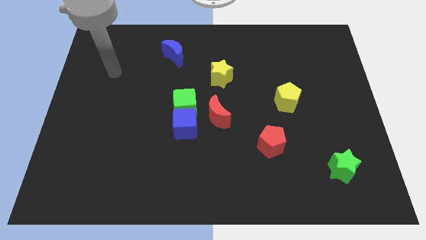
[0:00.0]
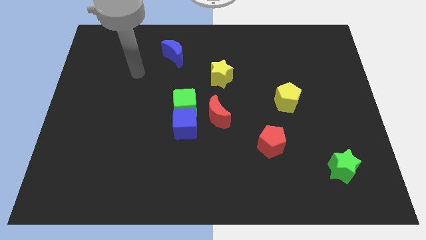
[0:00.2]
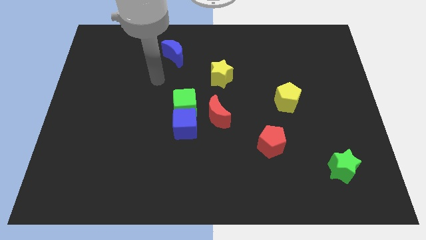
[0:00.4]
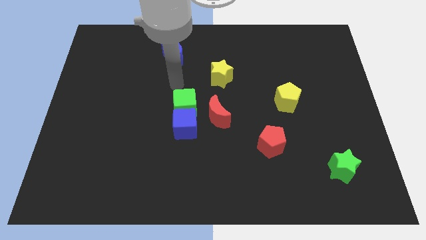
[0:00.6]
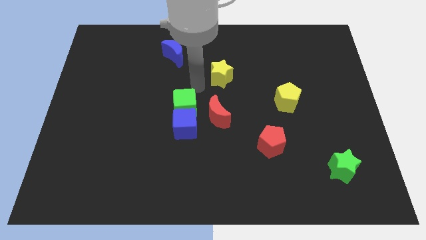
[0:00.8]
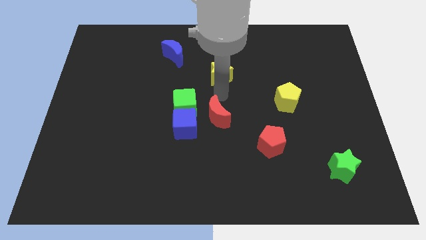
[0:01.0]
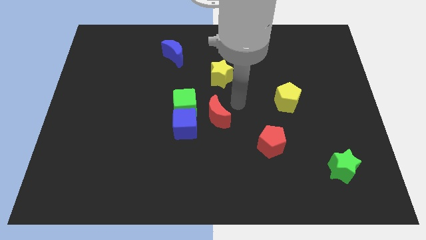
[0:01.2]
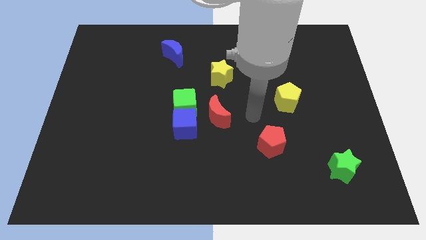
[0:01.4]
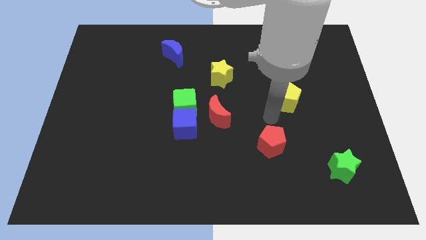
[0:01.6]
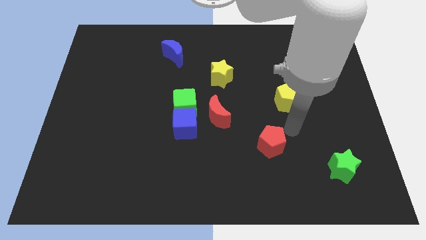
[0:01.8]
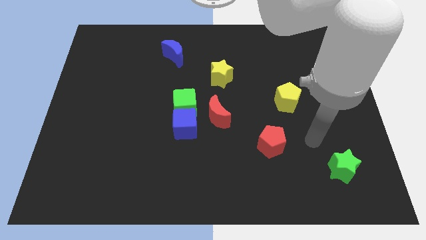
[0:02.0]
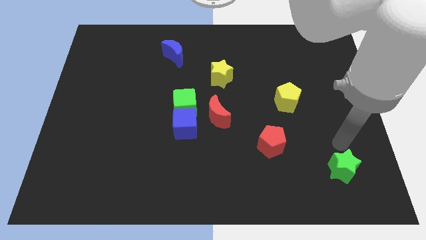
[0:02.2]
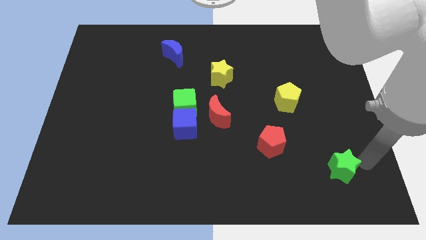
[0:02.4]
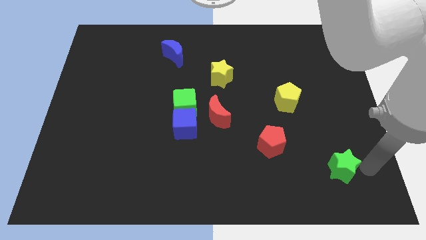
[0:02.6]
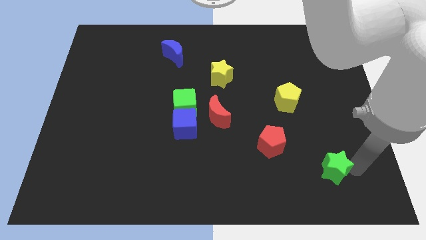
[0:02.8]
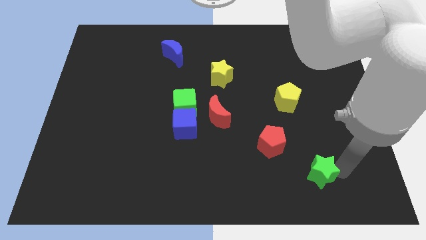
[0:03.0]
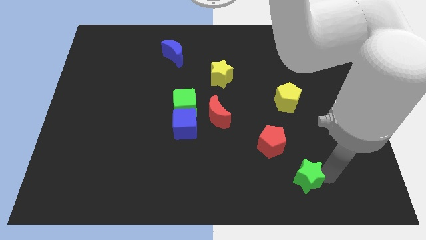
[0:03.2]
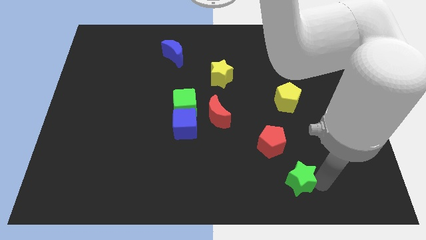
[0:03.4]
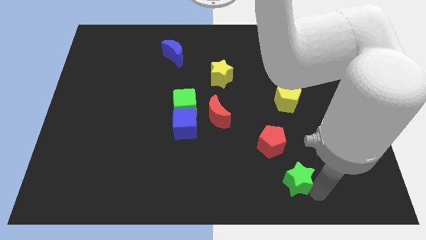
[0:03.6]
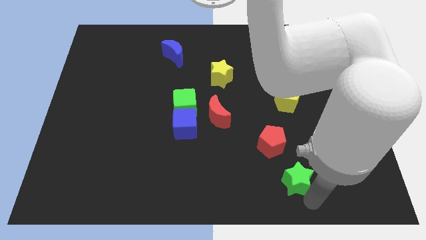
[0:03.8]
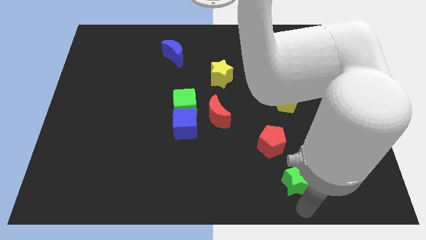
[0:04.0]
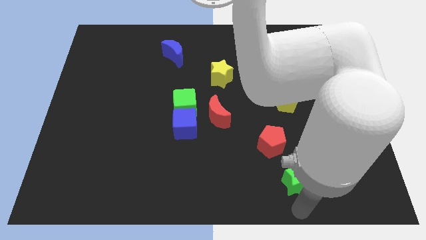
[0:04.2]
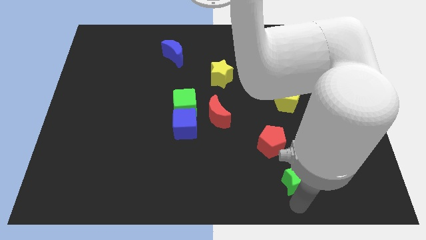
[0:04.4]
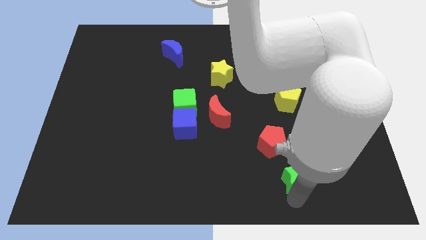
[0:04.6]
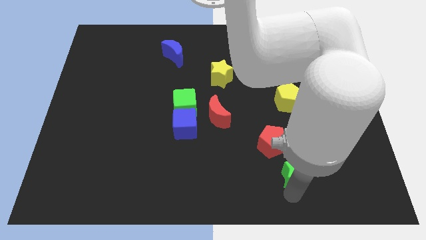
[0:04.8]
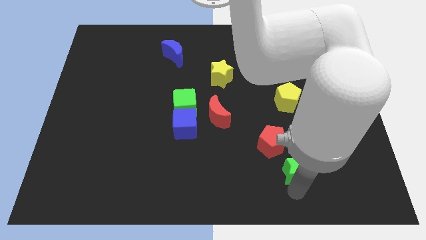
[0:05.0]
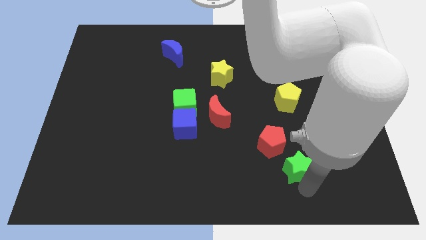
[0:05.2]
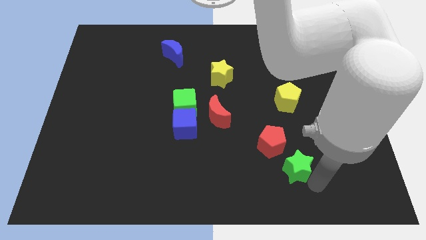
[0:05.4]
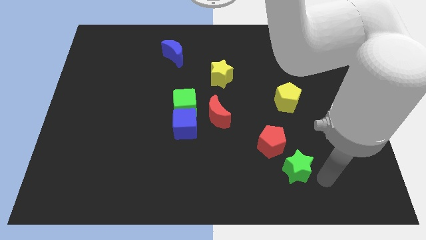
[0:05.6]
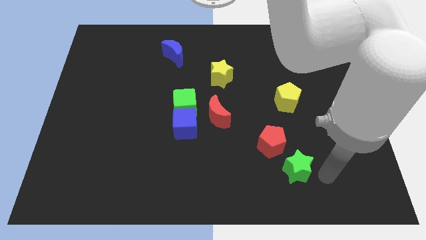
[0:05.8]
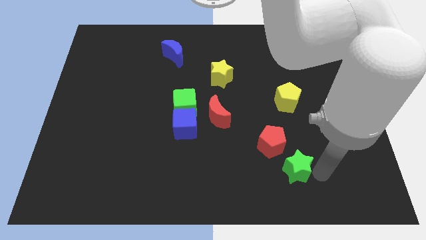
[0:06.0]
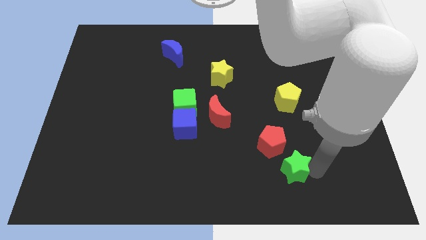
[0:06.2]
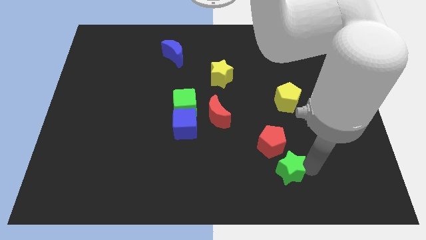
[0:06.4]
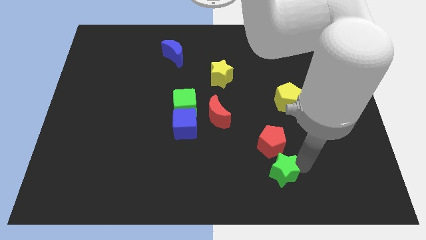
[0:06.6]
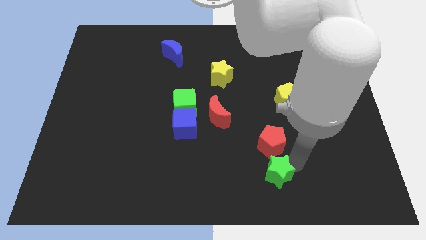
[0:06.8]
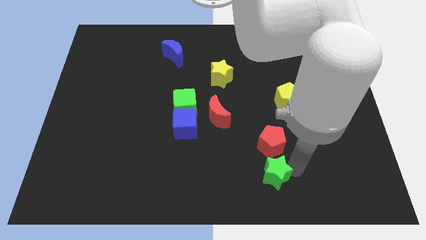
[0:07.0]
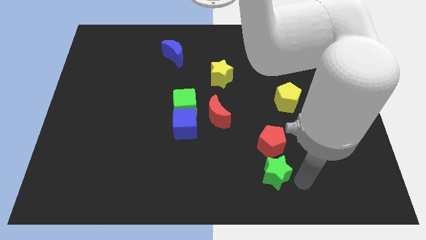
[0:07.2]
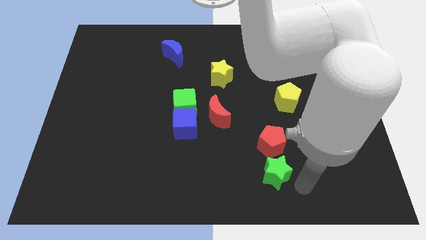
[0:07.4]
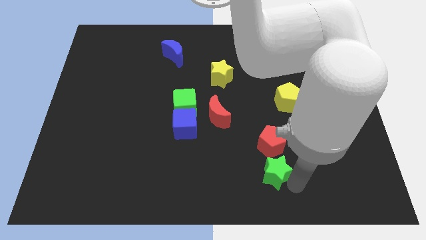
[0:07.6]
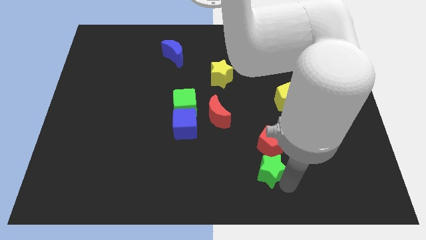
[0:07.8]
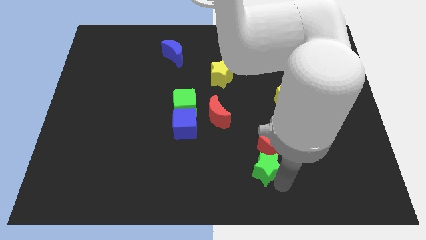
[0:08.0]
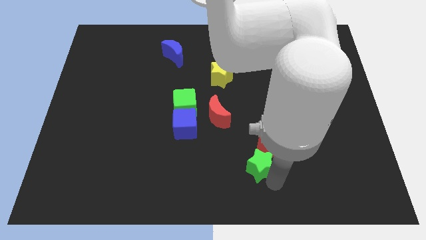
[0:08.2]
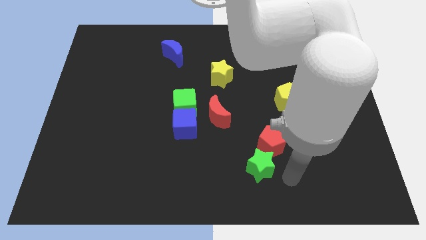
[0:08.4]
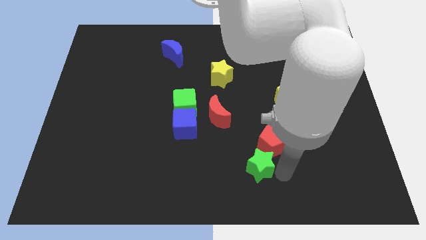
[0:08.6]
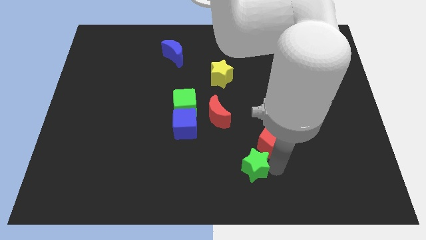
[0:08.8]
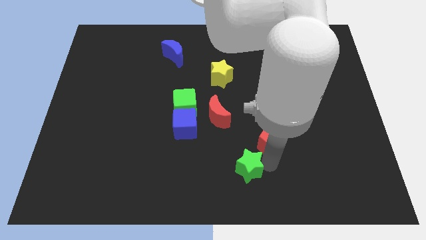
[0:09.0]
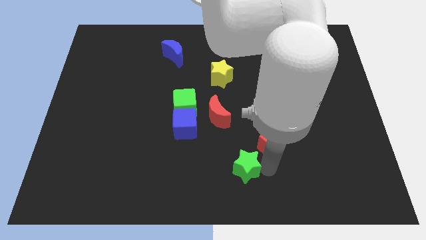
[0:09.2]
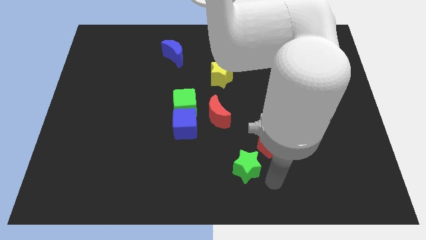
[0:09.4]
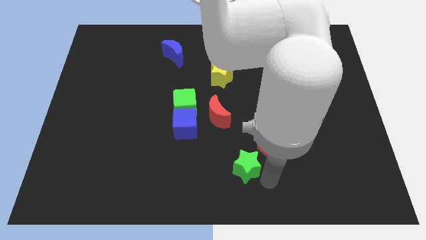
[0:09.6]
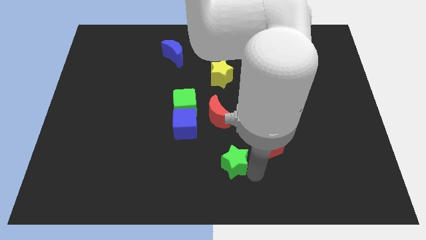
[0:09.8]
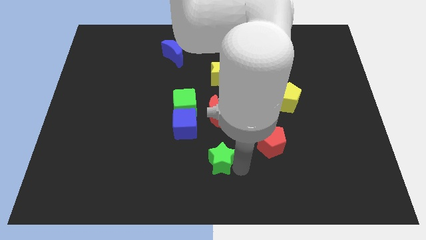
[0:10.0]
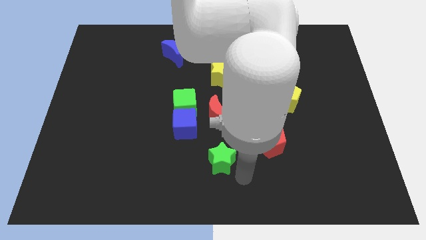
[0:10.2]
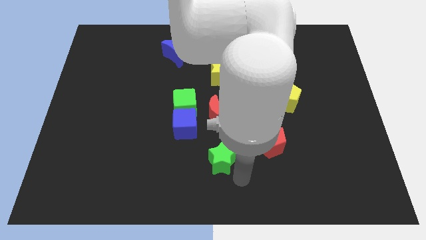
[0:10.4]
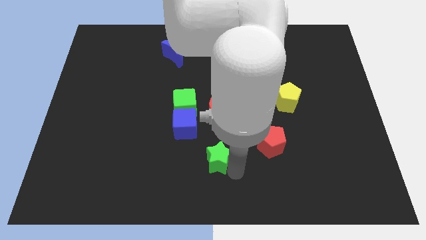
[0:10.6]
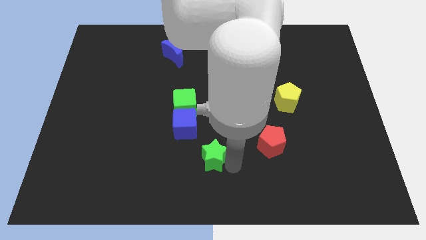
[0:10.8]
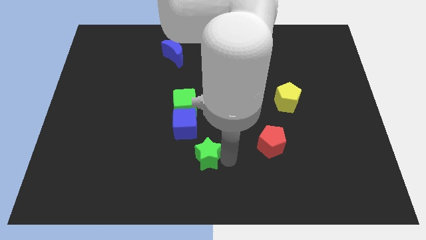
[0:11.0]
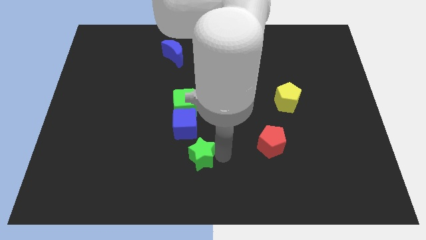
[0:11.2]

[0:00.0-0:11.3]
push the green star below the green cube

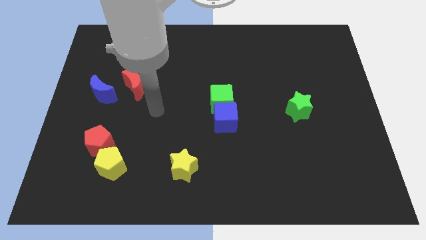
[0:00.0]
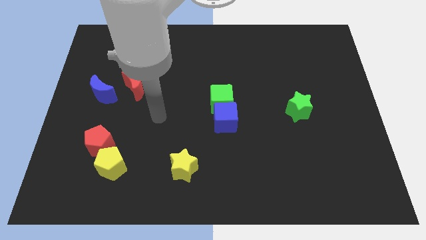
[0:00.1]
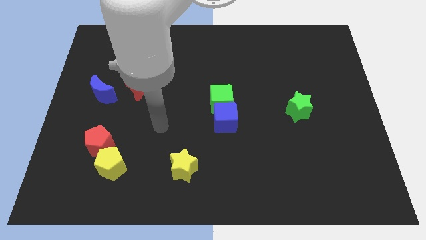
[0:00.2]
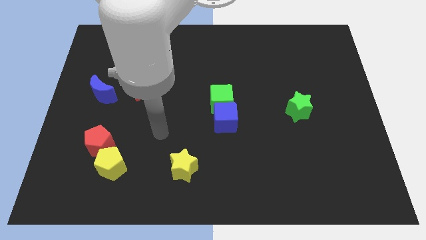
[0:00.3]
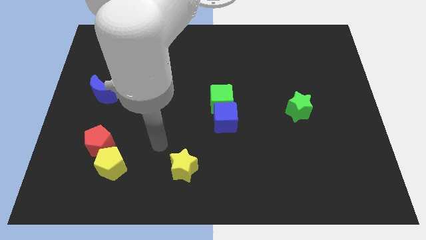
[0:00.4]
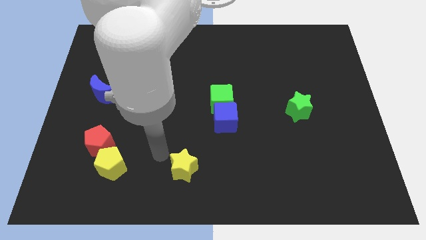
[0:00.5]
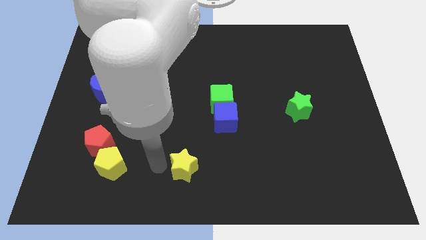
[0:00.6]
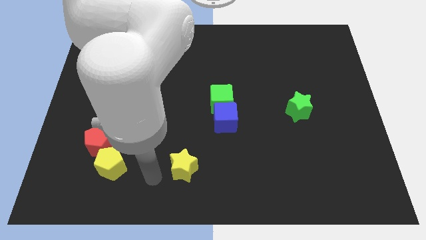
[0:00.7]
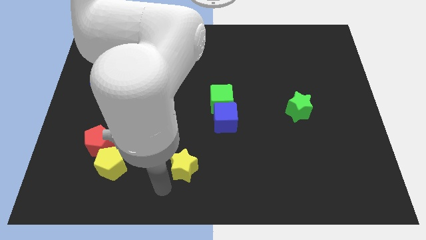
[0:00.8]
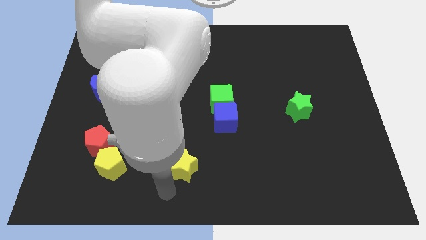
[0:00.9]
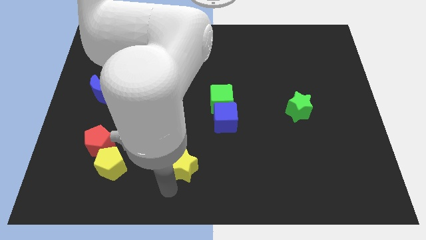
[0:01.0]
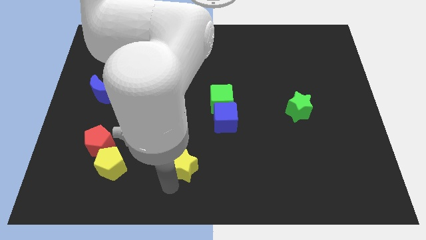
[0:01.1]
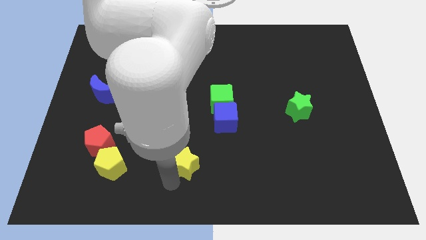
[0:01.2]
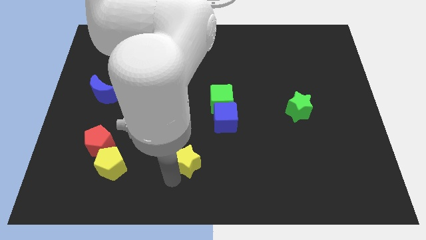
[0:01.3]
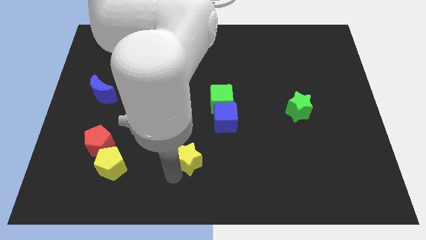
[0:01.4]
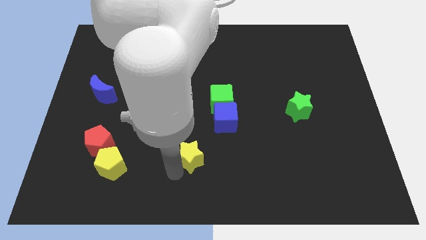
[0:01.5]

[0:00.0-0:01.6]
slide the yellow star to the bottom left of the blue cube

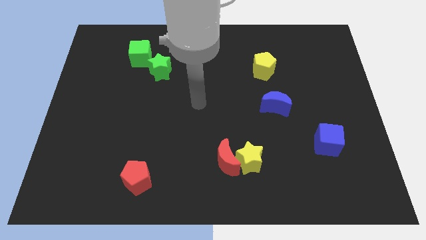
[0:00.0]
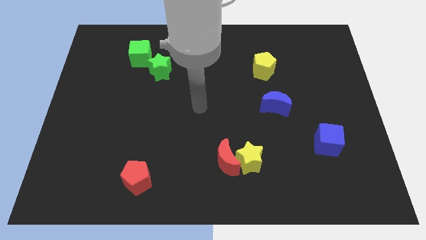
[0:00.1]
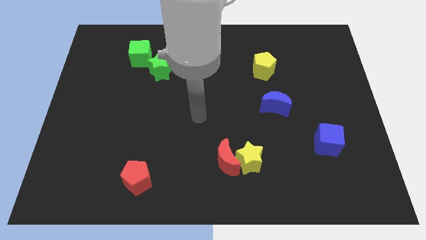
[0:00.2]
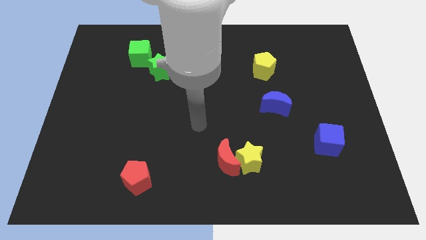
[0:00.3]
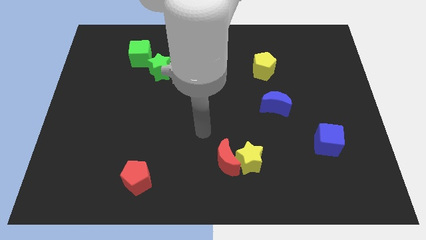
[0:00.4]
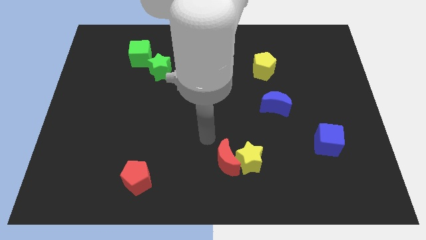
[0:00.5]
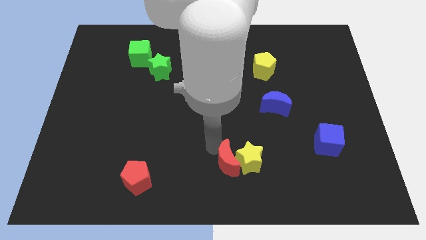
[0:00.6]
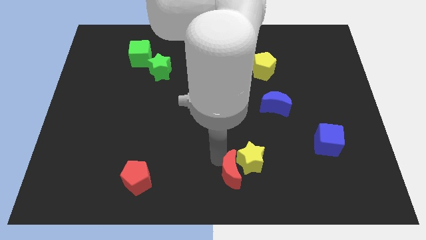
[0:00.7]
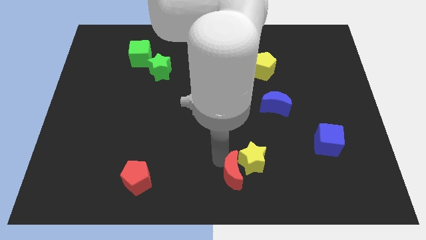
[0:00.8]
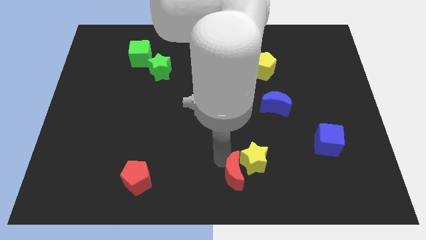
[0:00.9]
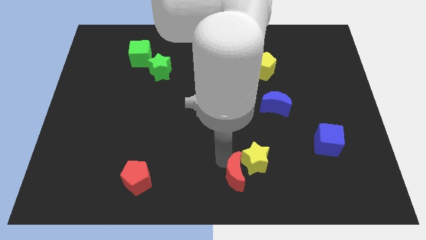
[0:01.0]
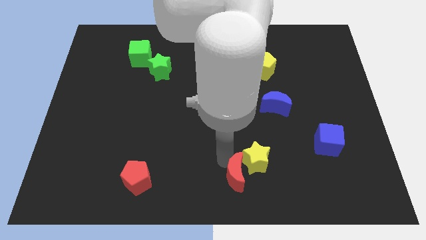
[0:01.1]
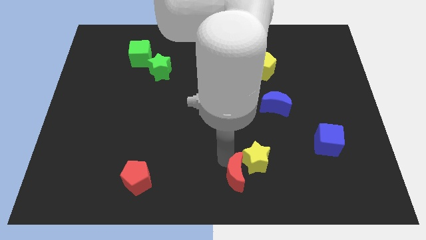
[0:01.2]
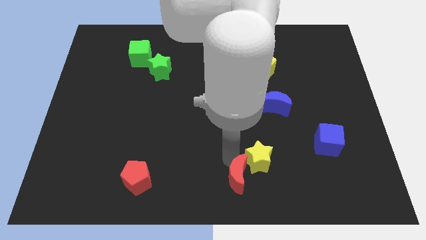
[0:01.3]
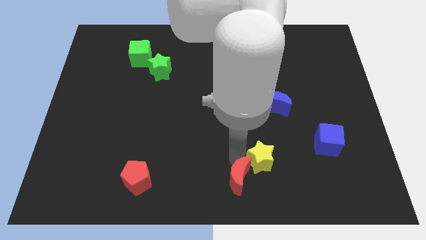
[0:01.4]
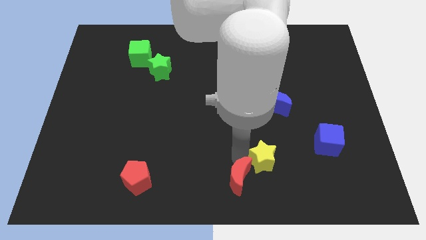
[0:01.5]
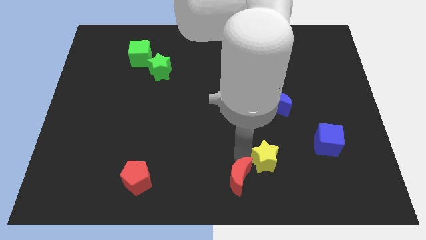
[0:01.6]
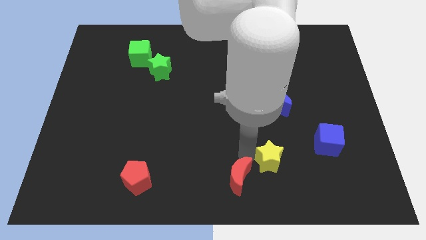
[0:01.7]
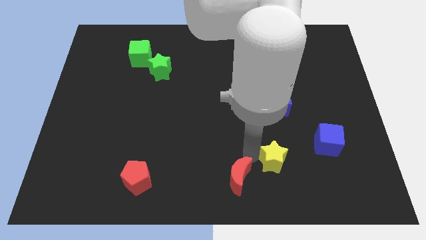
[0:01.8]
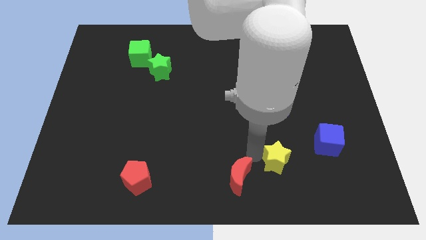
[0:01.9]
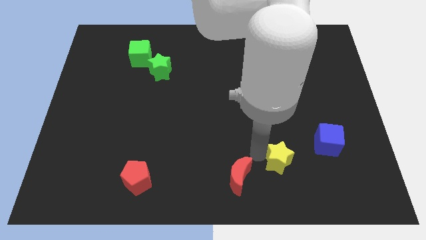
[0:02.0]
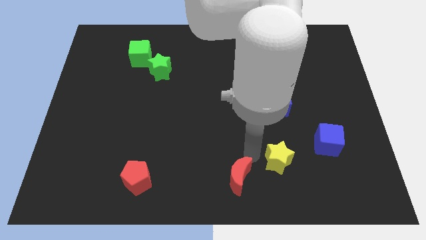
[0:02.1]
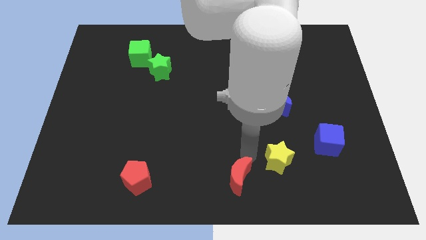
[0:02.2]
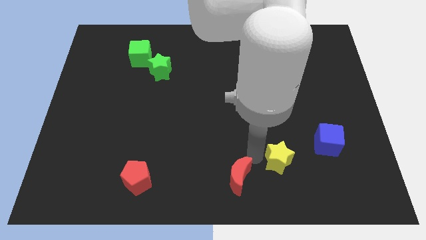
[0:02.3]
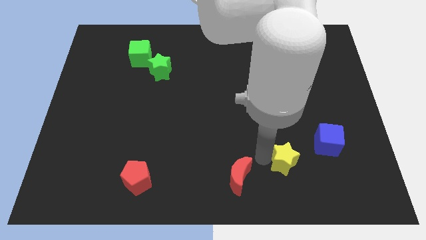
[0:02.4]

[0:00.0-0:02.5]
move the yellow star to the bottom left side of the blue cube
